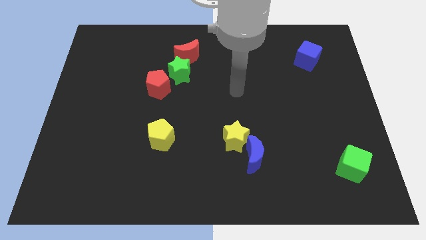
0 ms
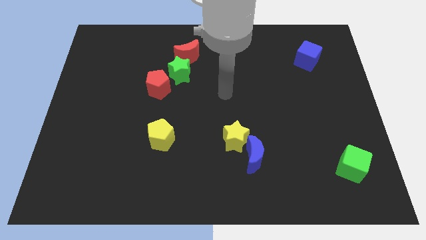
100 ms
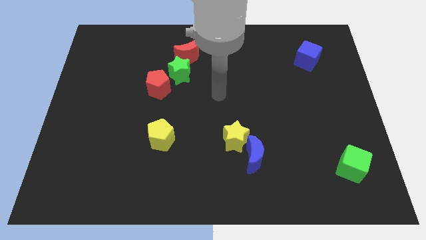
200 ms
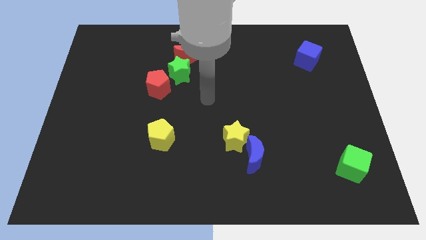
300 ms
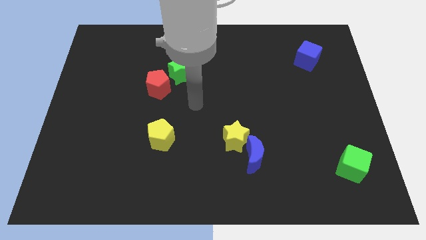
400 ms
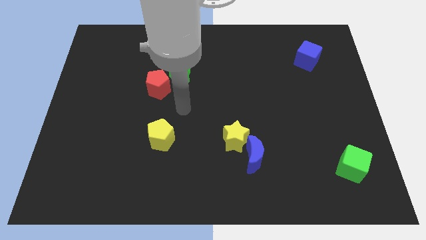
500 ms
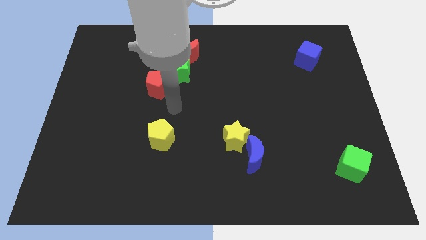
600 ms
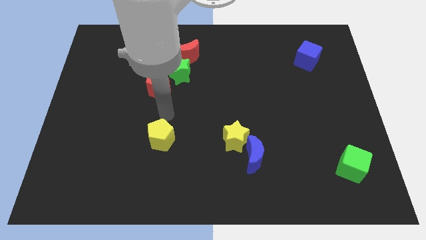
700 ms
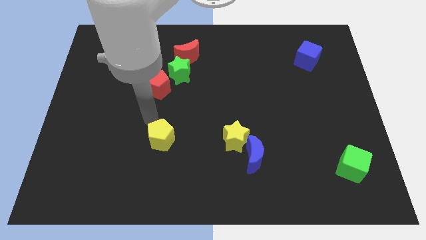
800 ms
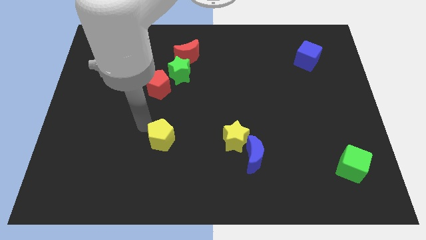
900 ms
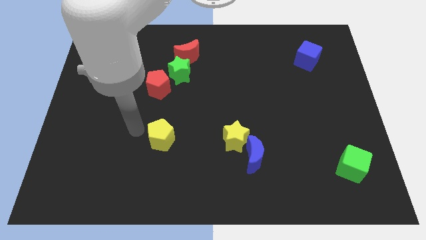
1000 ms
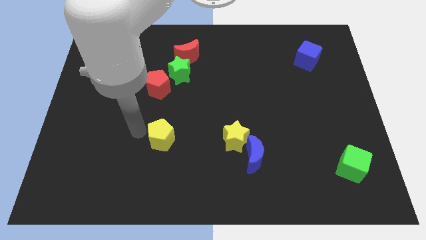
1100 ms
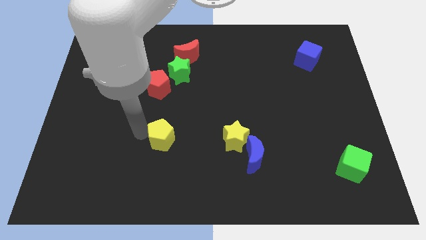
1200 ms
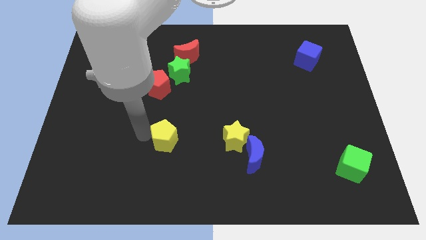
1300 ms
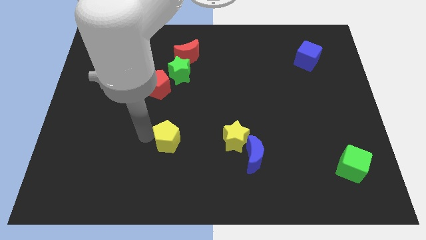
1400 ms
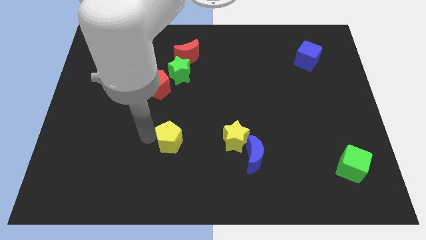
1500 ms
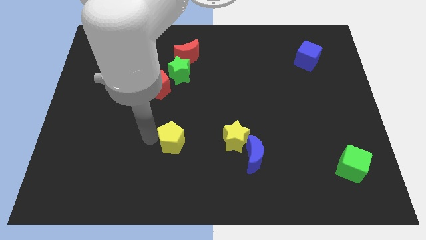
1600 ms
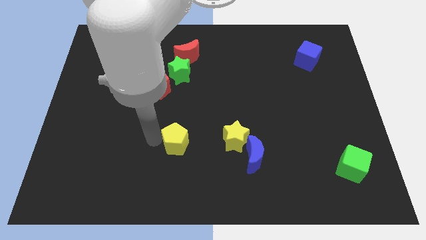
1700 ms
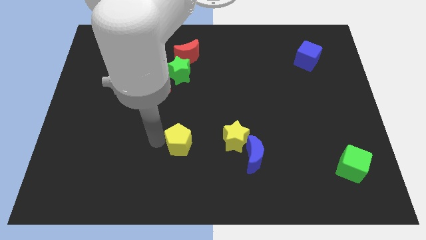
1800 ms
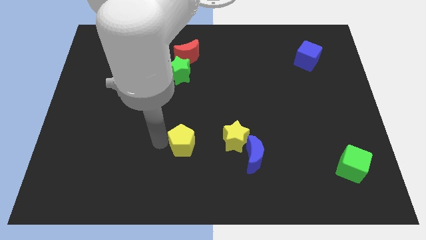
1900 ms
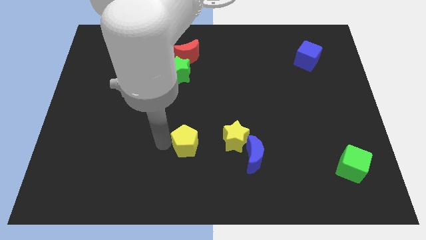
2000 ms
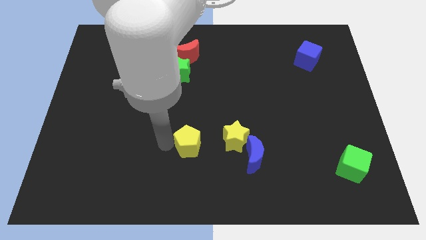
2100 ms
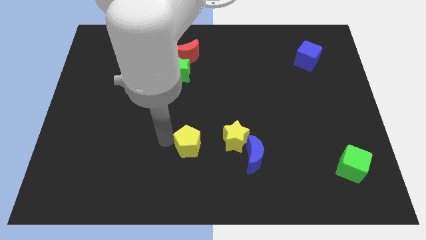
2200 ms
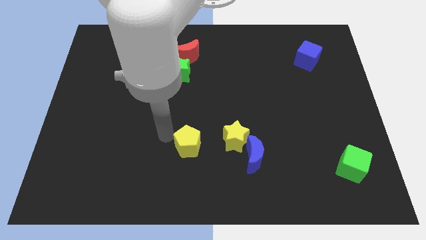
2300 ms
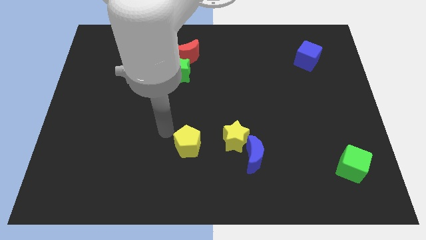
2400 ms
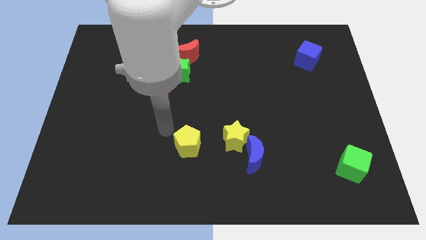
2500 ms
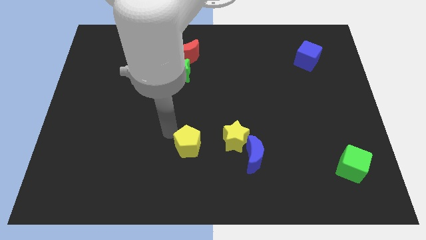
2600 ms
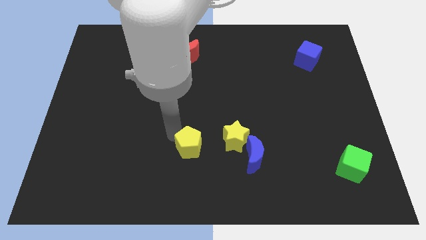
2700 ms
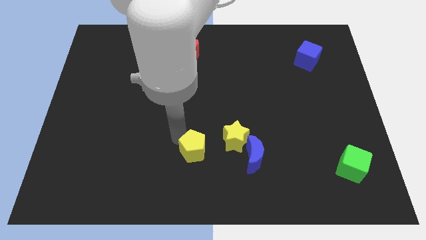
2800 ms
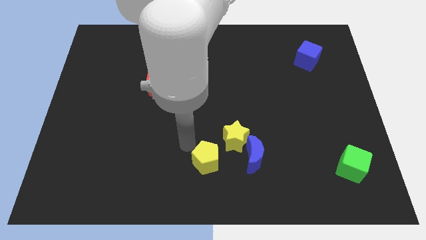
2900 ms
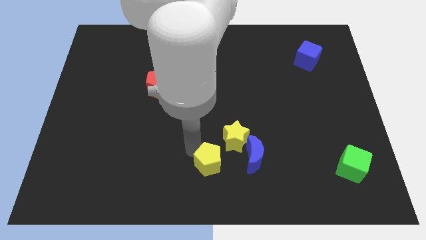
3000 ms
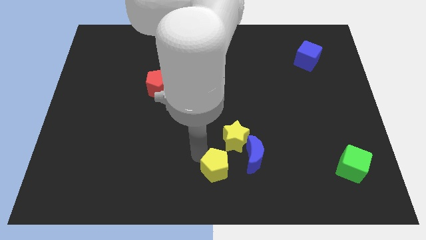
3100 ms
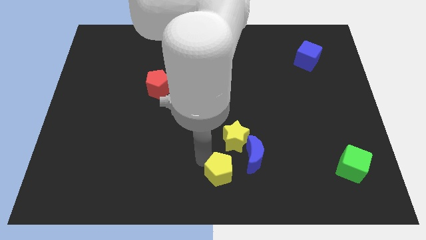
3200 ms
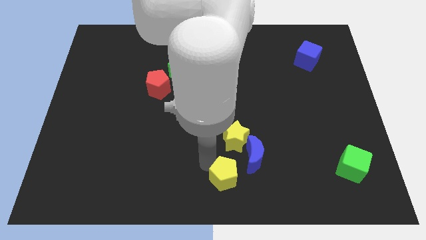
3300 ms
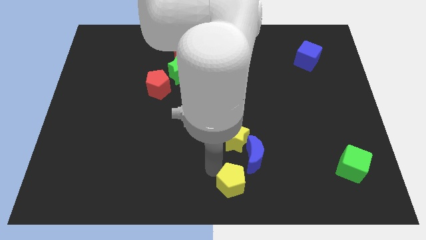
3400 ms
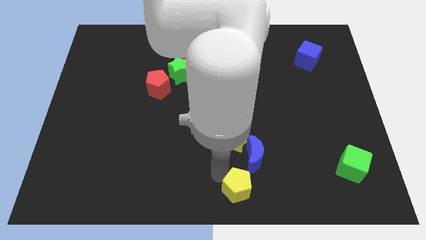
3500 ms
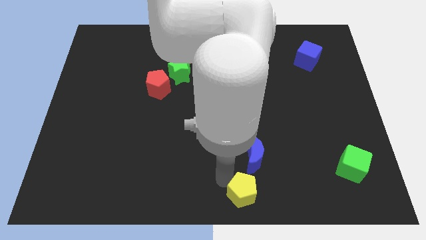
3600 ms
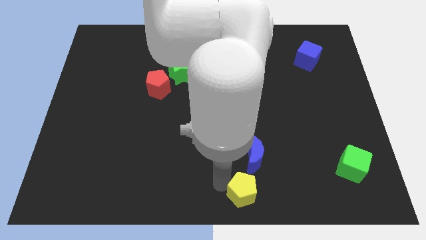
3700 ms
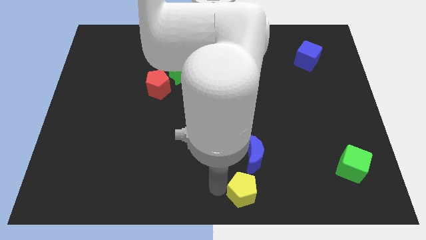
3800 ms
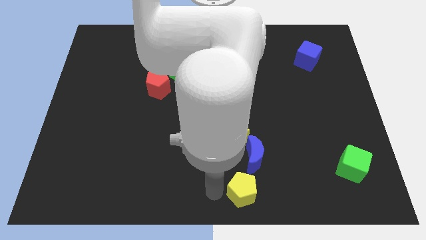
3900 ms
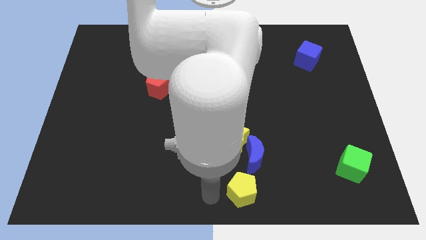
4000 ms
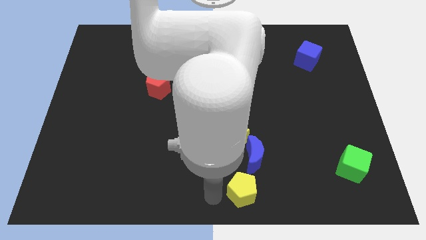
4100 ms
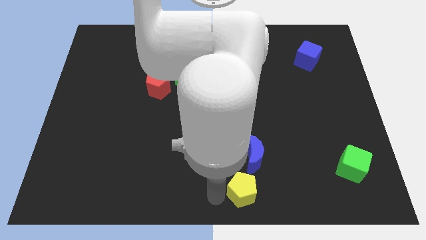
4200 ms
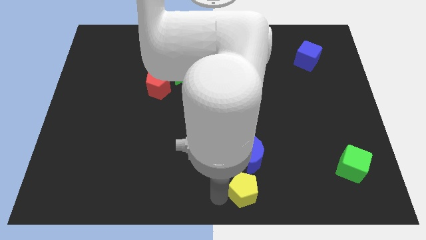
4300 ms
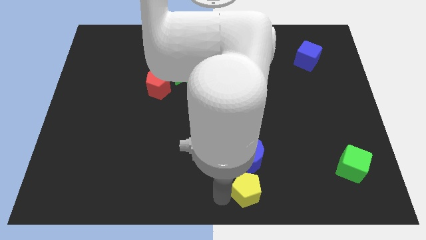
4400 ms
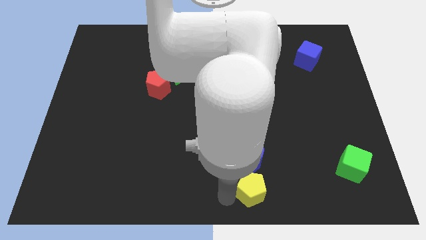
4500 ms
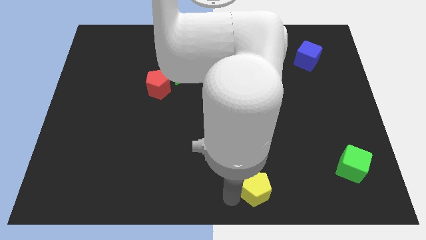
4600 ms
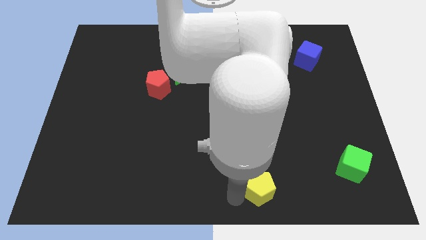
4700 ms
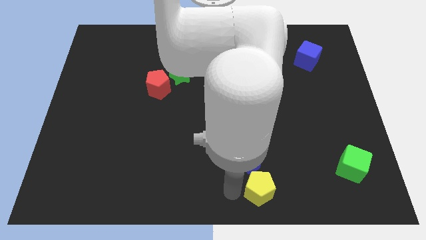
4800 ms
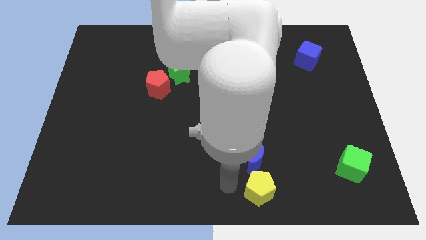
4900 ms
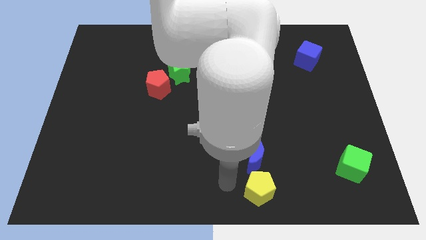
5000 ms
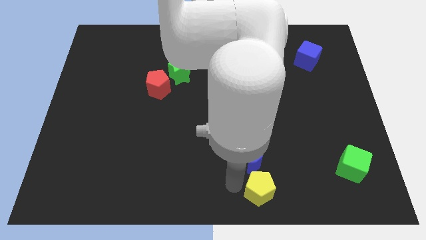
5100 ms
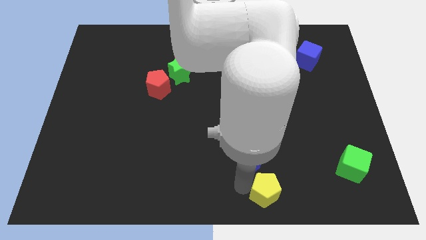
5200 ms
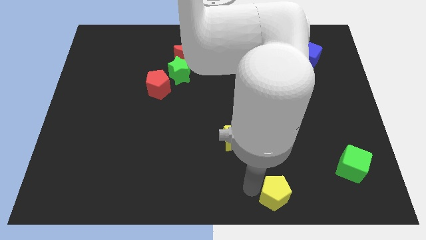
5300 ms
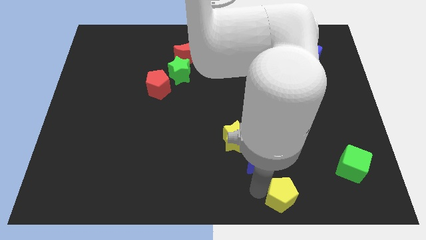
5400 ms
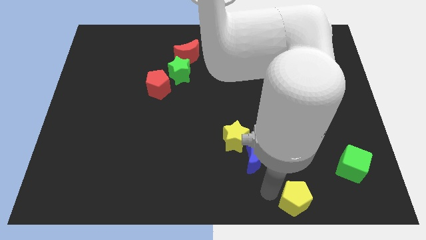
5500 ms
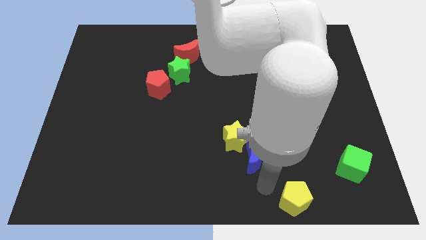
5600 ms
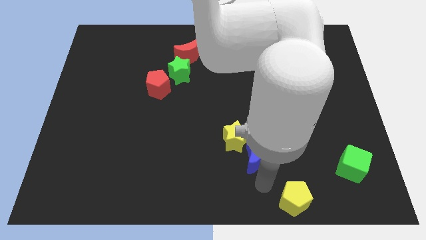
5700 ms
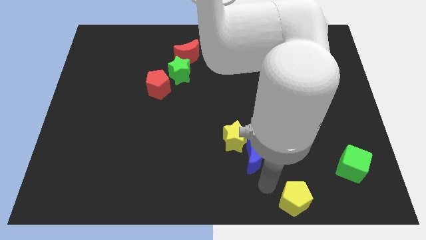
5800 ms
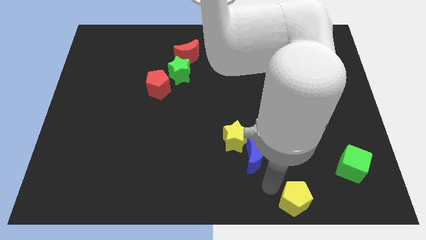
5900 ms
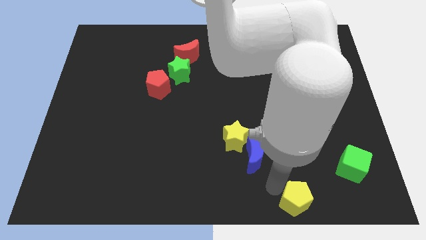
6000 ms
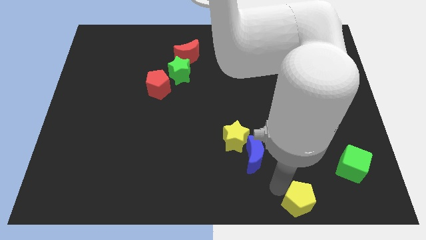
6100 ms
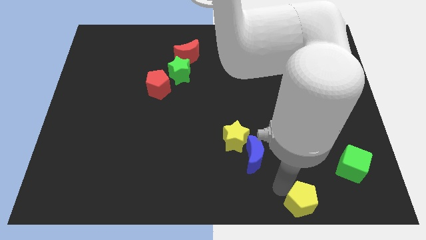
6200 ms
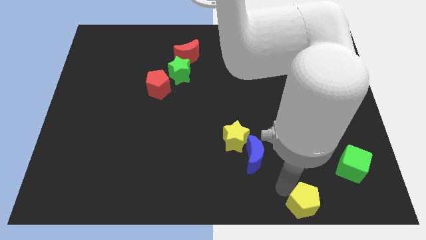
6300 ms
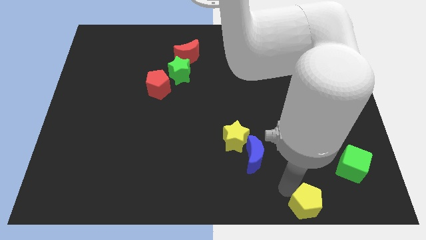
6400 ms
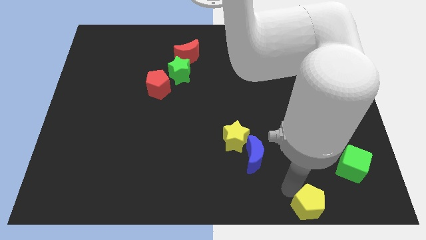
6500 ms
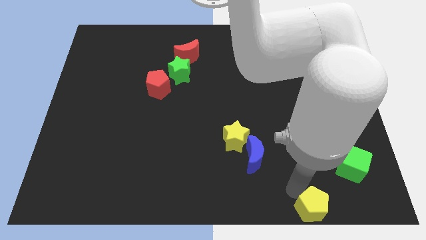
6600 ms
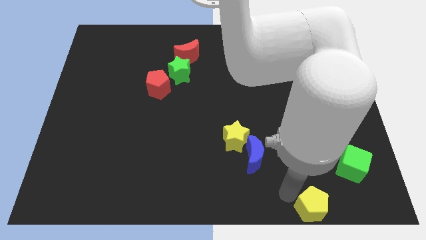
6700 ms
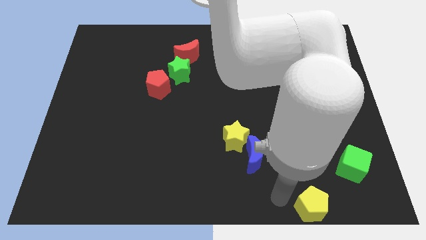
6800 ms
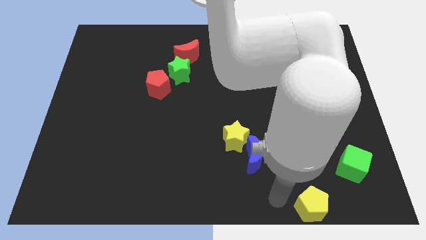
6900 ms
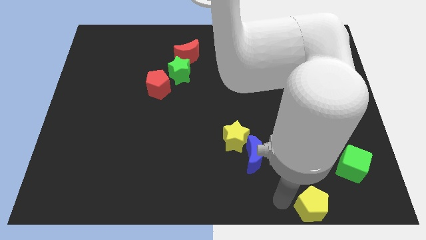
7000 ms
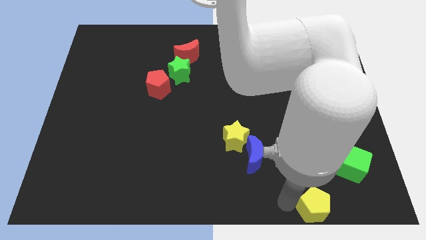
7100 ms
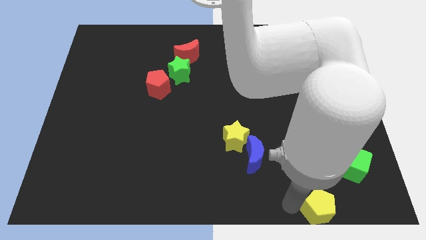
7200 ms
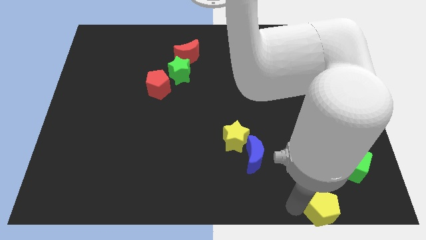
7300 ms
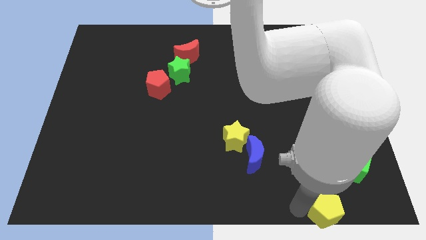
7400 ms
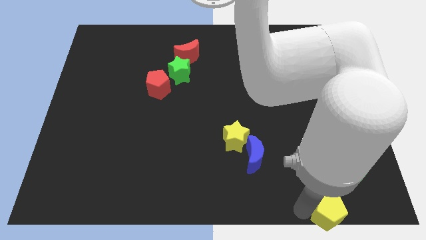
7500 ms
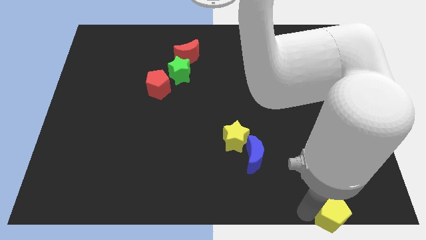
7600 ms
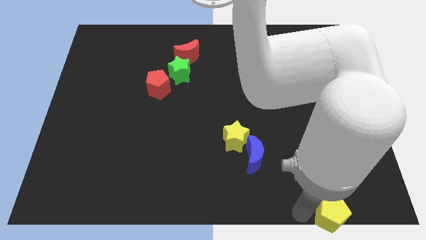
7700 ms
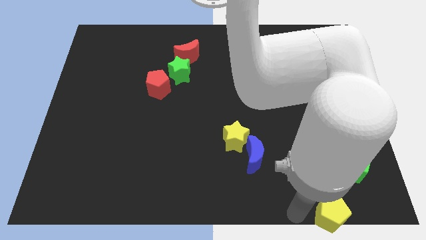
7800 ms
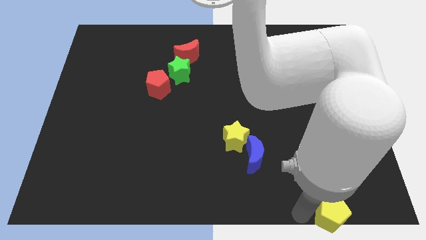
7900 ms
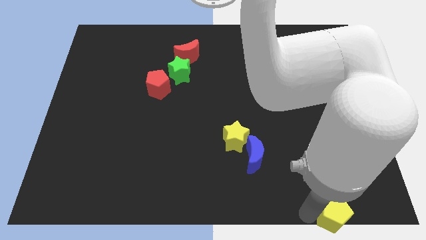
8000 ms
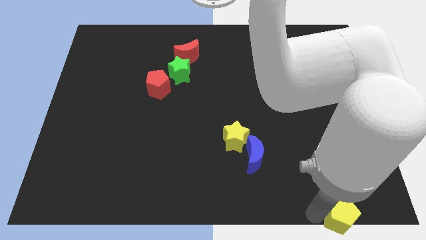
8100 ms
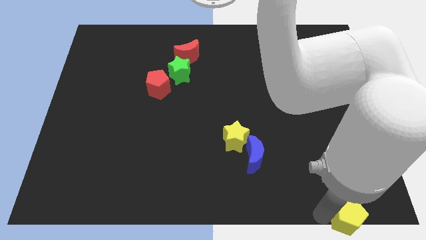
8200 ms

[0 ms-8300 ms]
push the yellow pentagon to the lower right corner
